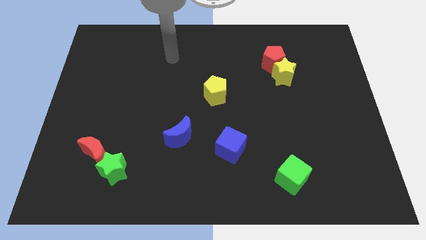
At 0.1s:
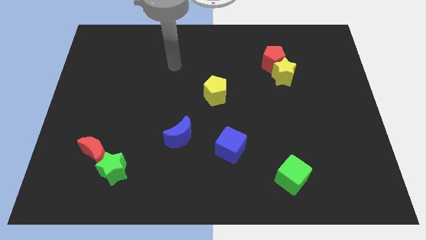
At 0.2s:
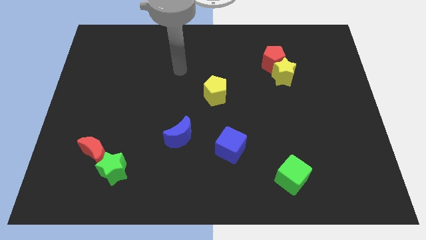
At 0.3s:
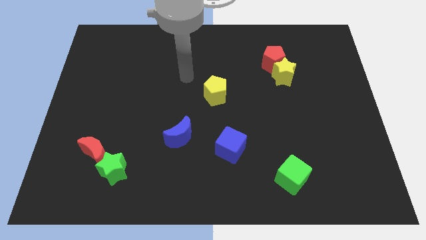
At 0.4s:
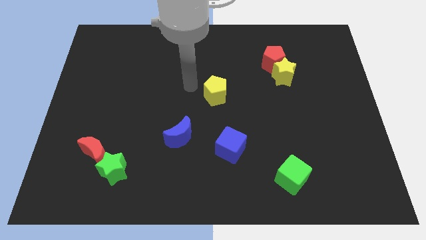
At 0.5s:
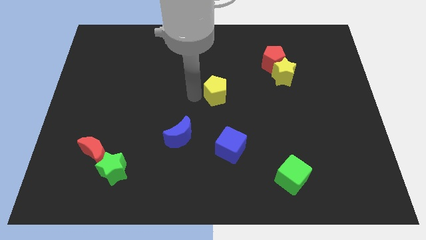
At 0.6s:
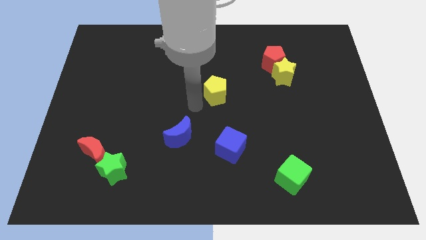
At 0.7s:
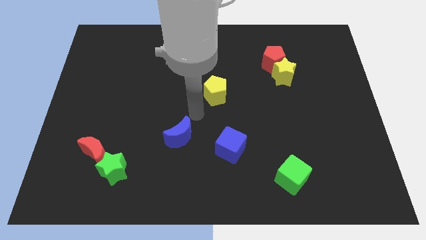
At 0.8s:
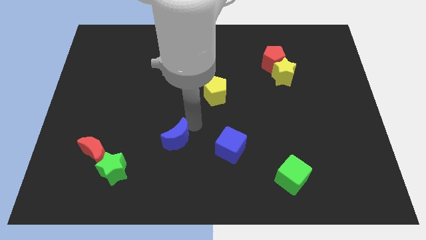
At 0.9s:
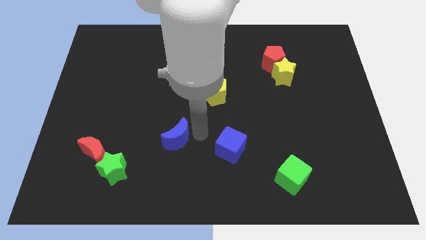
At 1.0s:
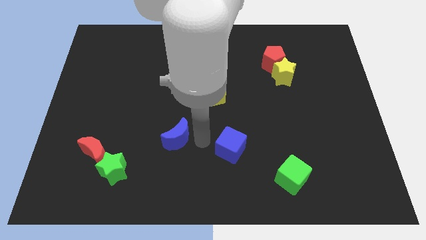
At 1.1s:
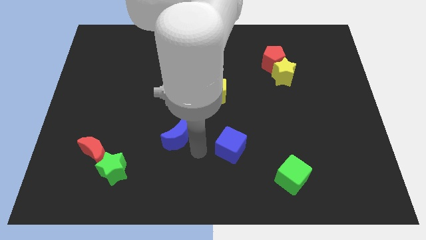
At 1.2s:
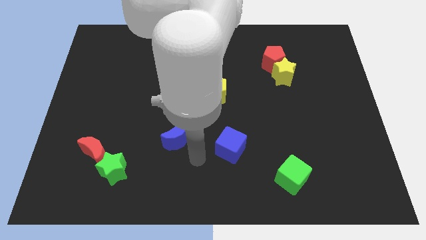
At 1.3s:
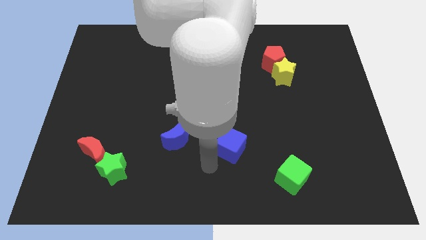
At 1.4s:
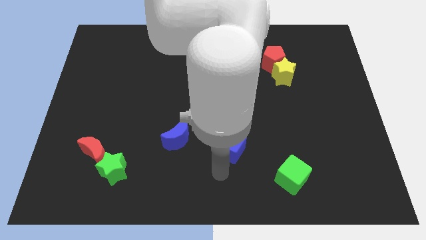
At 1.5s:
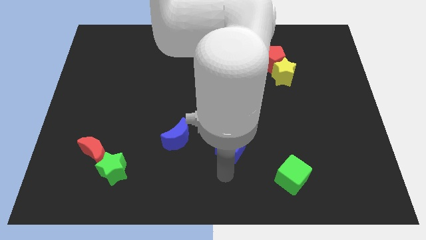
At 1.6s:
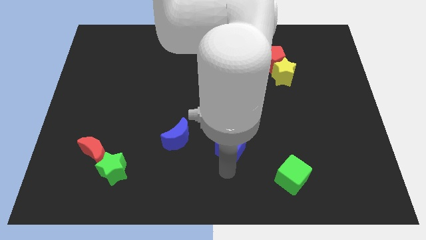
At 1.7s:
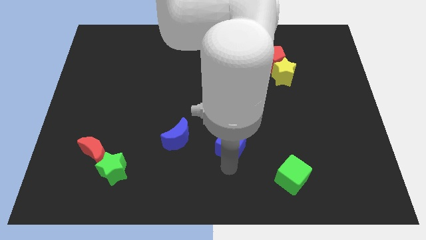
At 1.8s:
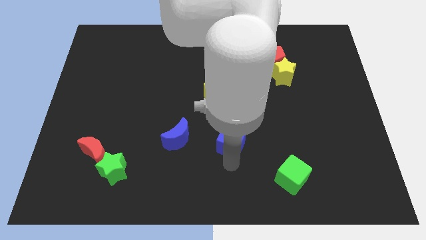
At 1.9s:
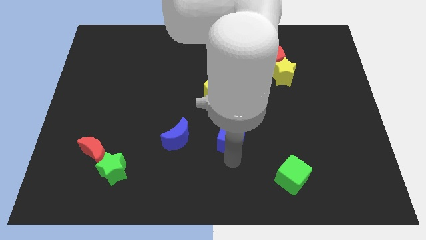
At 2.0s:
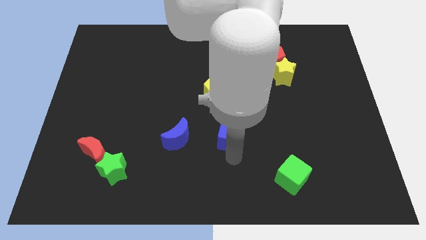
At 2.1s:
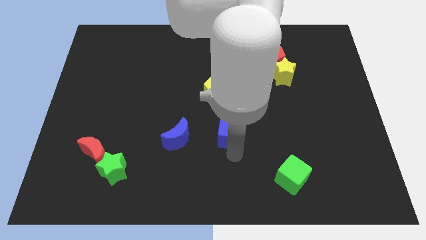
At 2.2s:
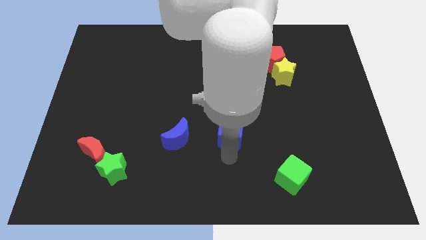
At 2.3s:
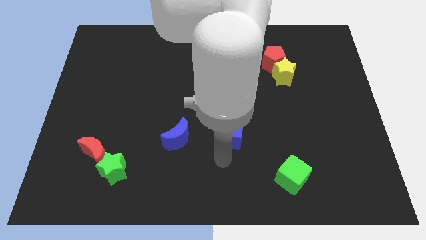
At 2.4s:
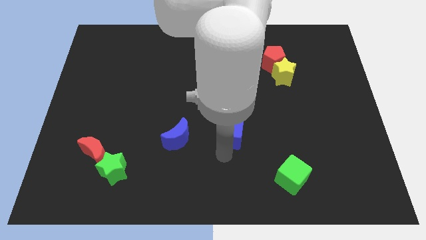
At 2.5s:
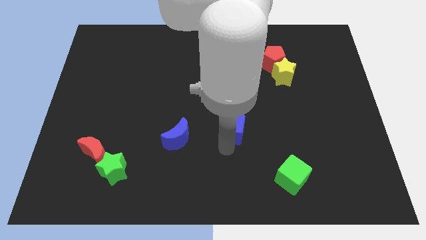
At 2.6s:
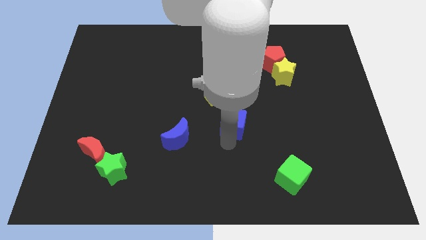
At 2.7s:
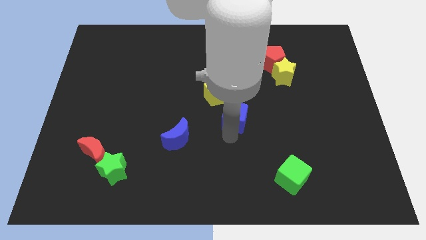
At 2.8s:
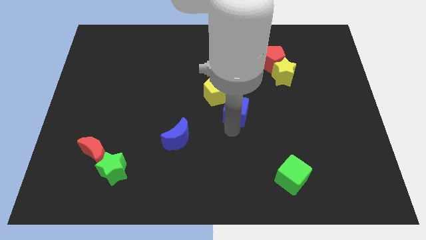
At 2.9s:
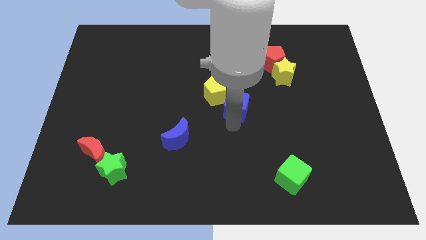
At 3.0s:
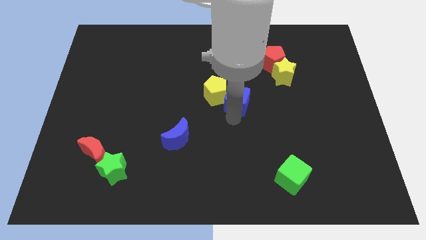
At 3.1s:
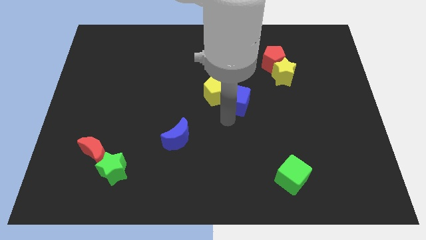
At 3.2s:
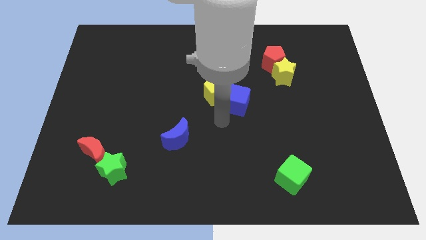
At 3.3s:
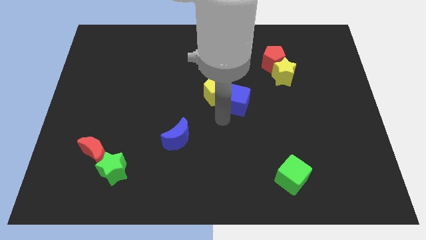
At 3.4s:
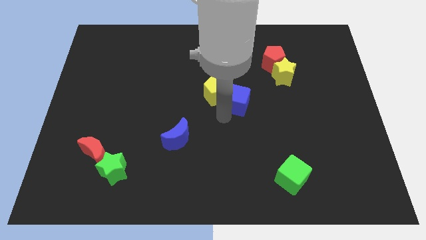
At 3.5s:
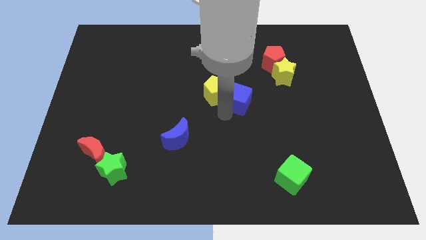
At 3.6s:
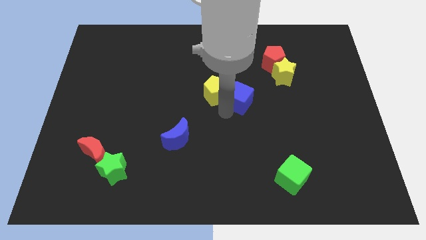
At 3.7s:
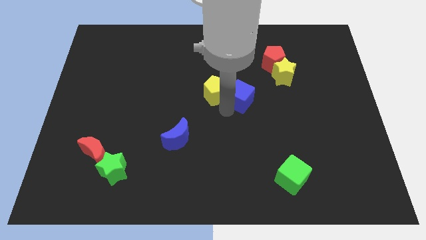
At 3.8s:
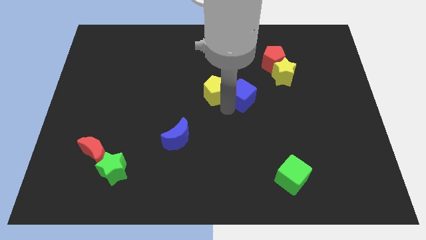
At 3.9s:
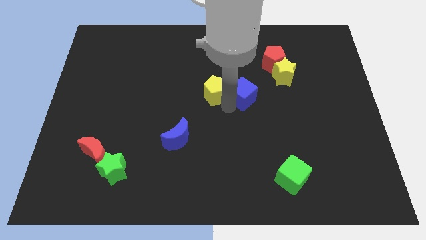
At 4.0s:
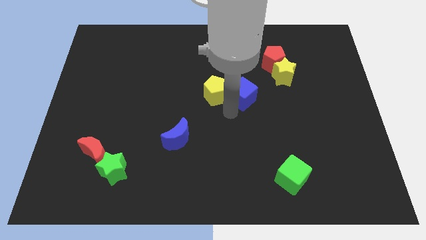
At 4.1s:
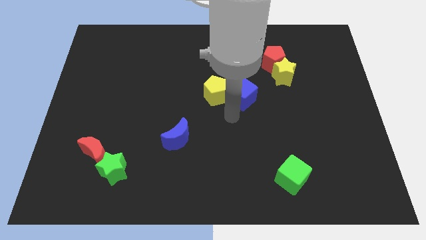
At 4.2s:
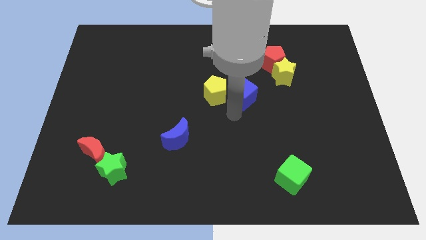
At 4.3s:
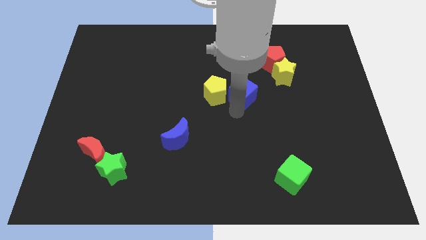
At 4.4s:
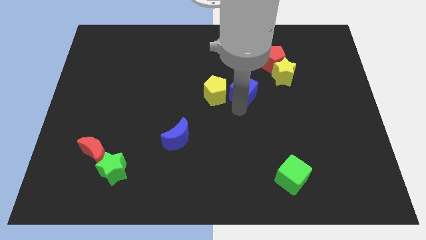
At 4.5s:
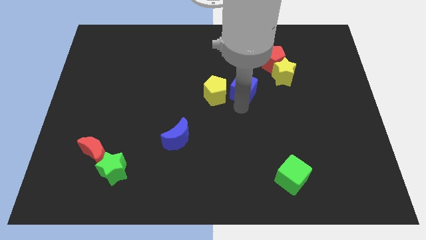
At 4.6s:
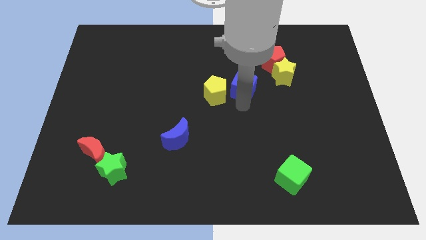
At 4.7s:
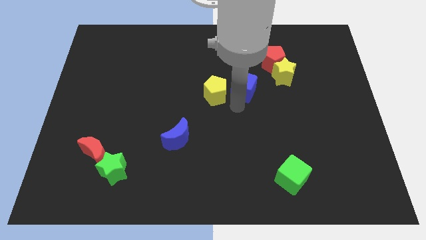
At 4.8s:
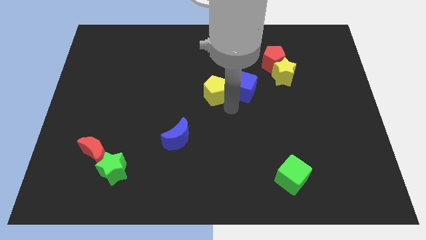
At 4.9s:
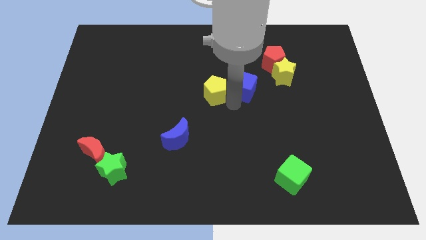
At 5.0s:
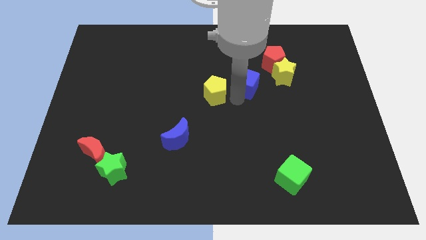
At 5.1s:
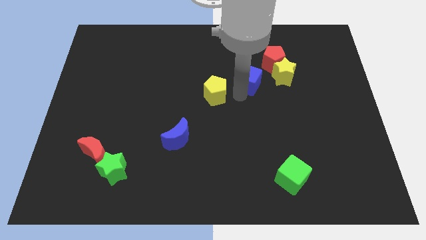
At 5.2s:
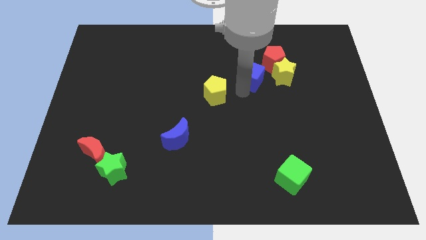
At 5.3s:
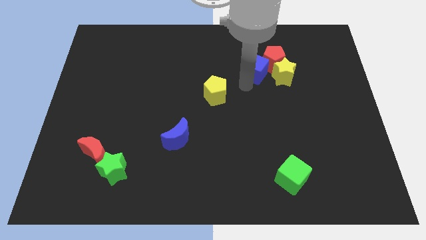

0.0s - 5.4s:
move the blue cube towards the red pentagon
